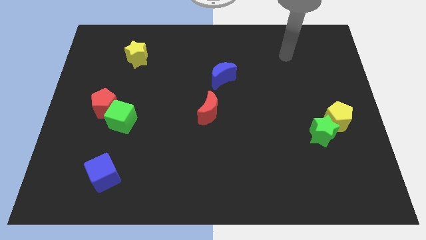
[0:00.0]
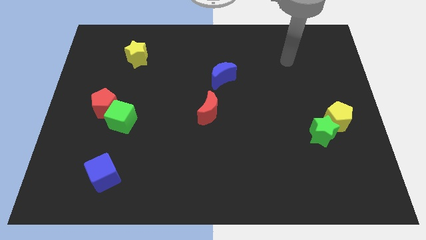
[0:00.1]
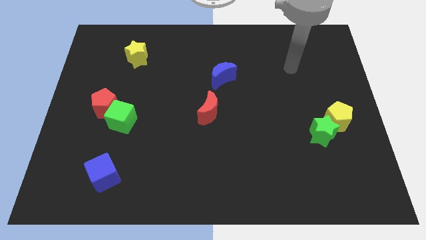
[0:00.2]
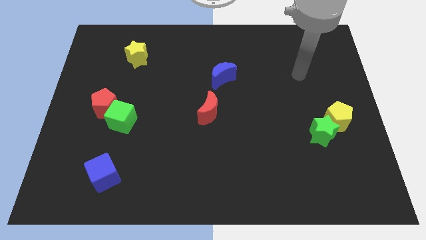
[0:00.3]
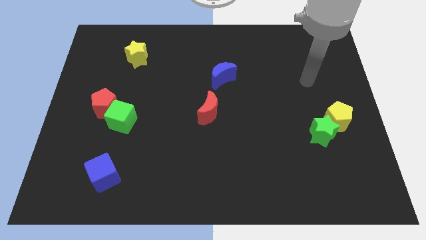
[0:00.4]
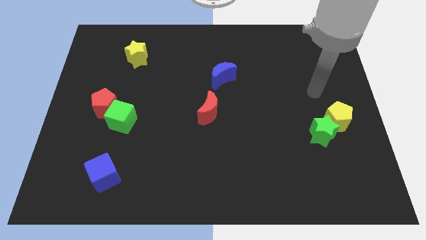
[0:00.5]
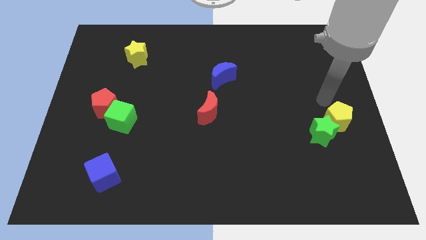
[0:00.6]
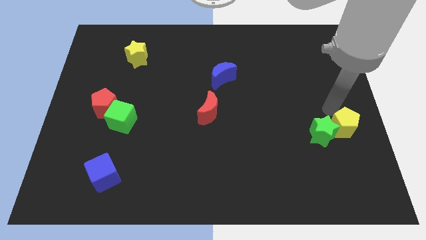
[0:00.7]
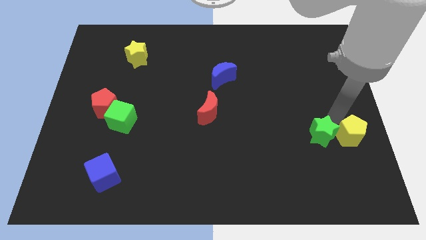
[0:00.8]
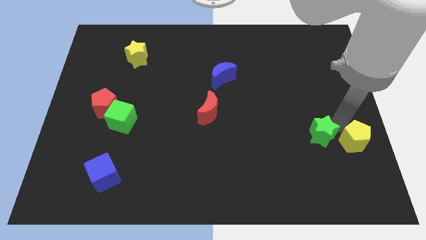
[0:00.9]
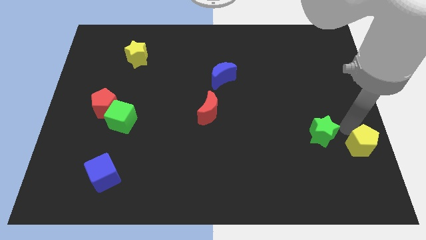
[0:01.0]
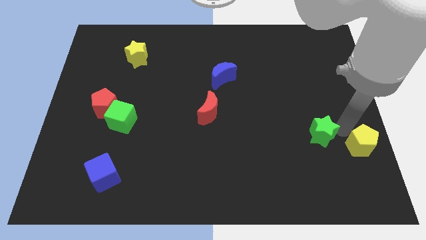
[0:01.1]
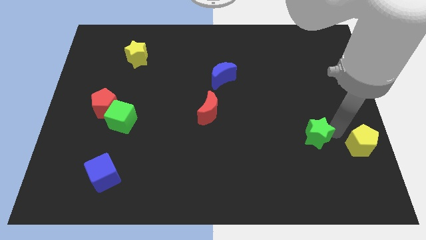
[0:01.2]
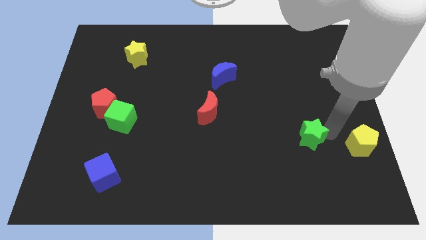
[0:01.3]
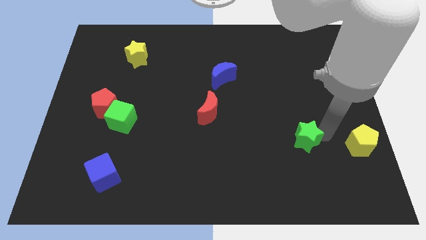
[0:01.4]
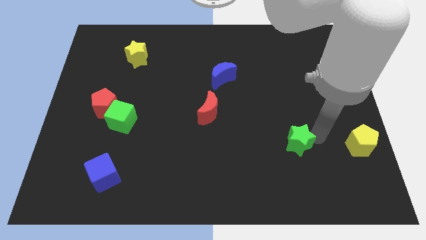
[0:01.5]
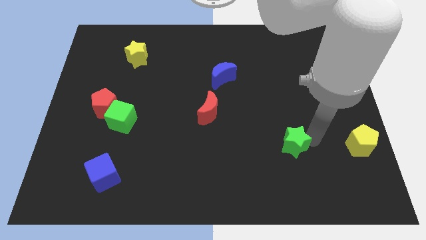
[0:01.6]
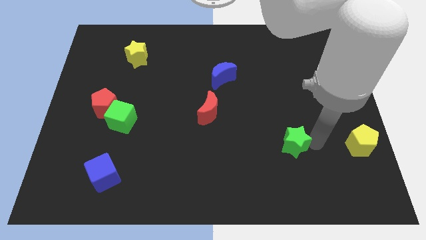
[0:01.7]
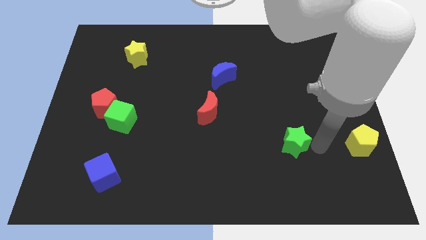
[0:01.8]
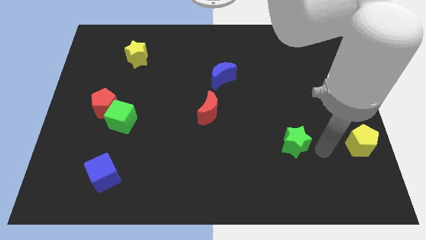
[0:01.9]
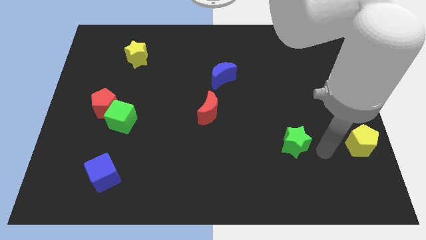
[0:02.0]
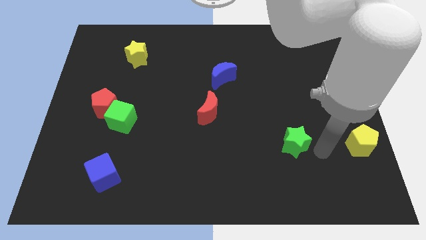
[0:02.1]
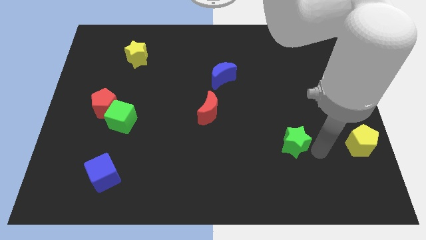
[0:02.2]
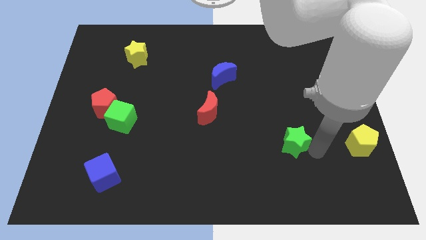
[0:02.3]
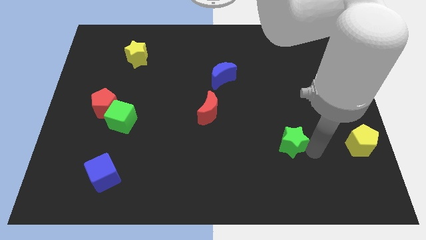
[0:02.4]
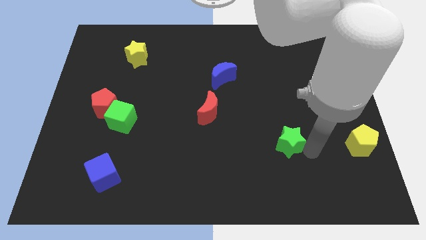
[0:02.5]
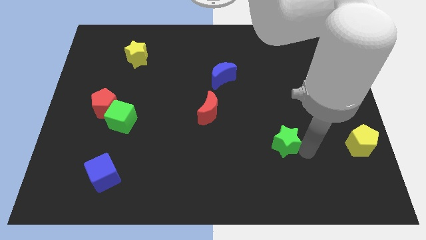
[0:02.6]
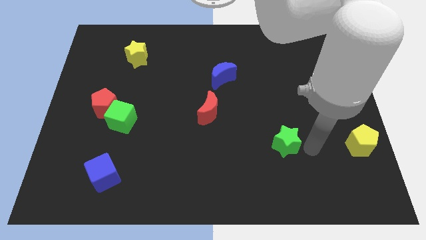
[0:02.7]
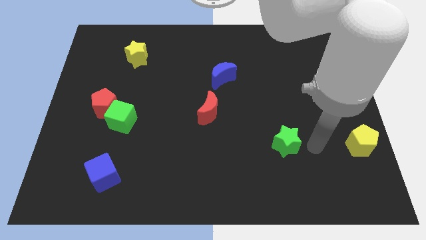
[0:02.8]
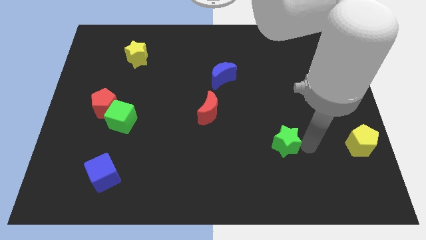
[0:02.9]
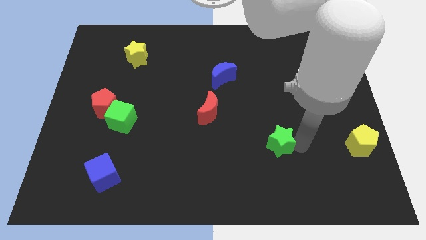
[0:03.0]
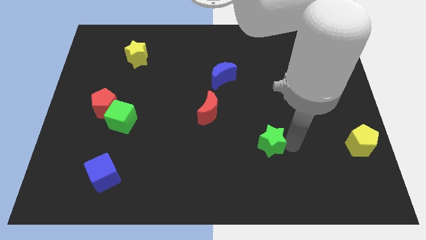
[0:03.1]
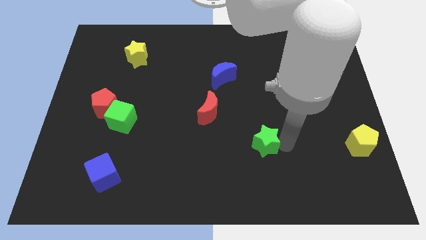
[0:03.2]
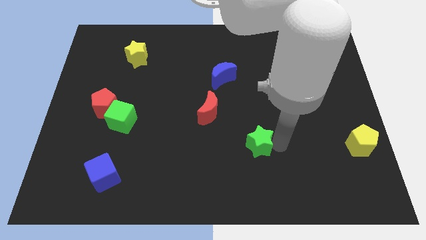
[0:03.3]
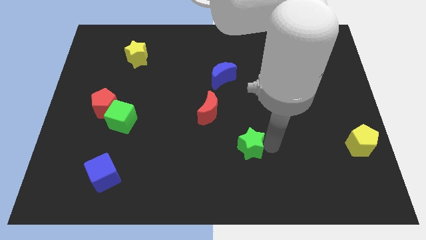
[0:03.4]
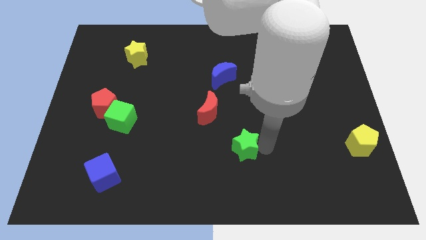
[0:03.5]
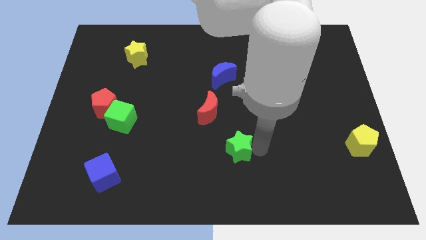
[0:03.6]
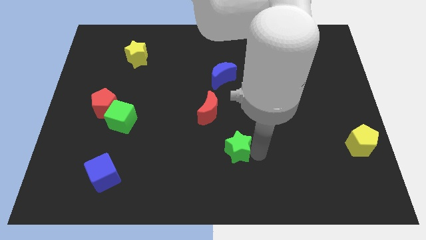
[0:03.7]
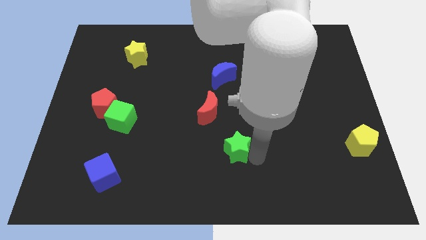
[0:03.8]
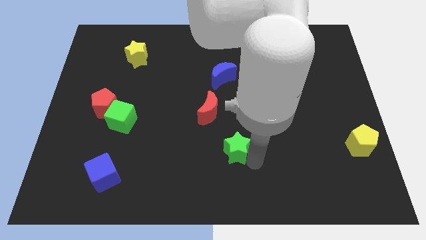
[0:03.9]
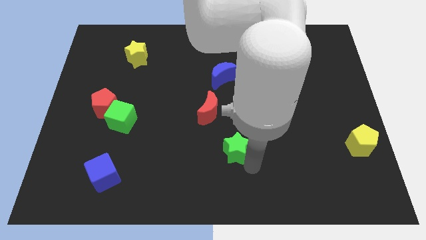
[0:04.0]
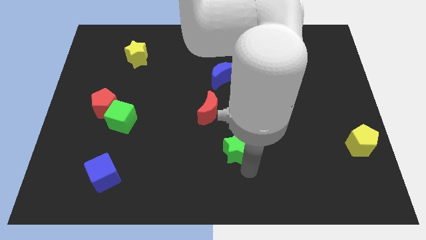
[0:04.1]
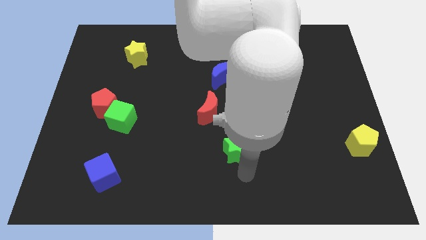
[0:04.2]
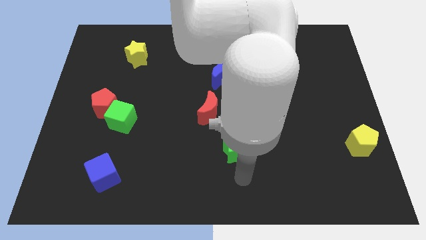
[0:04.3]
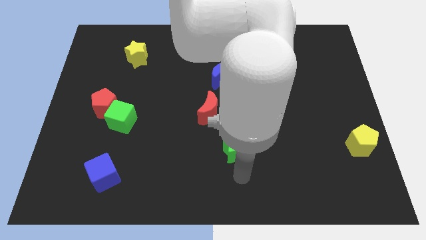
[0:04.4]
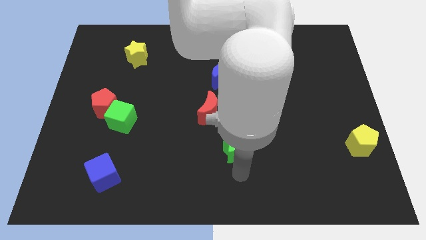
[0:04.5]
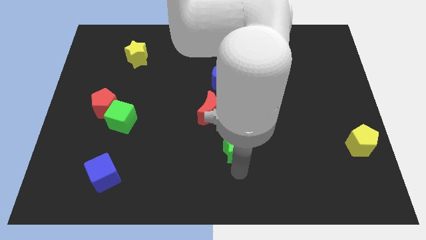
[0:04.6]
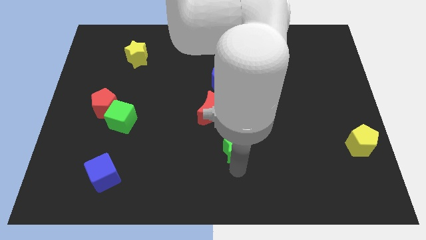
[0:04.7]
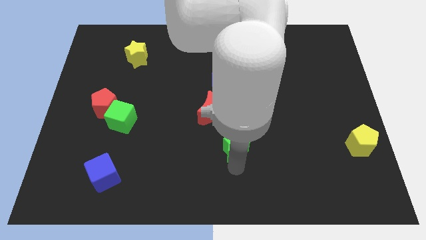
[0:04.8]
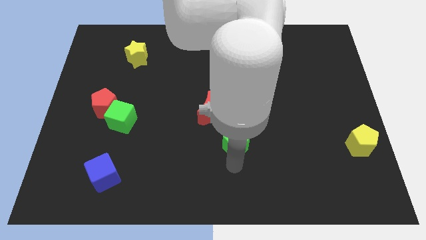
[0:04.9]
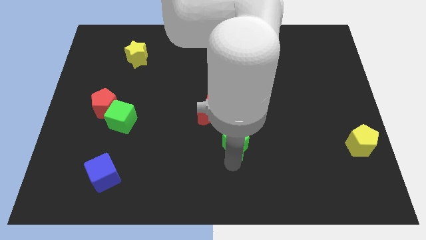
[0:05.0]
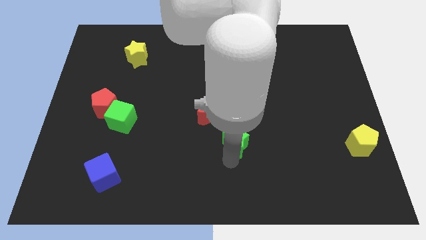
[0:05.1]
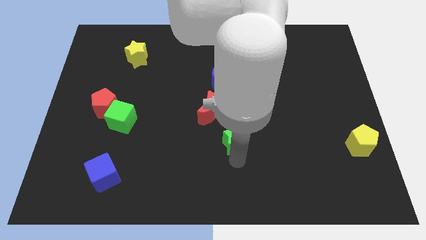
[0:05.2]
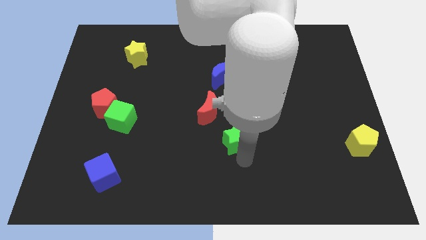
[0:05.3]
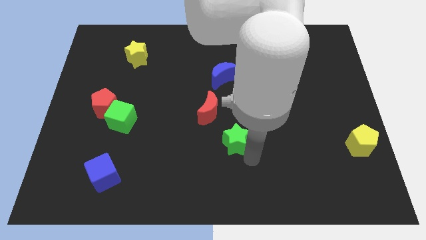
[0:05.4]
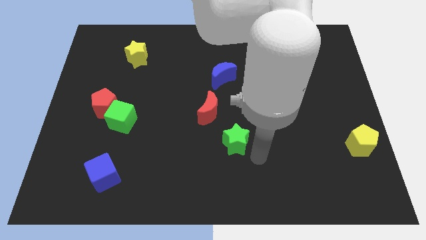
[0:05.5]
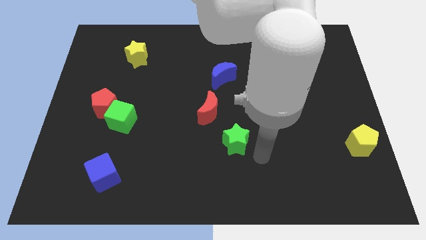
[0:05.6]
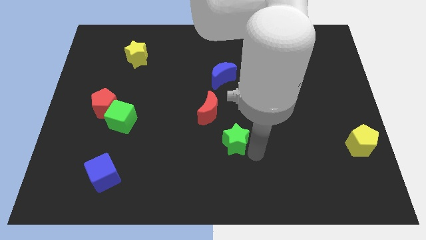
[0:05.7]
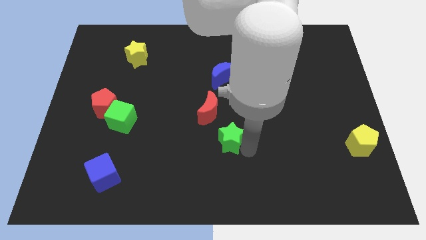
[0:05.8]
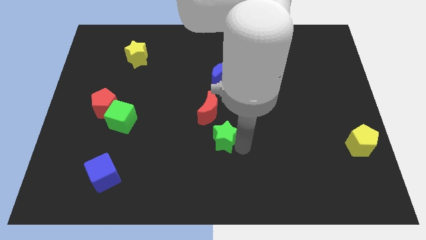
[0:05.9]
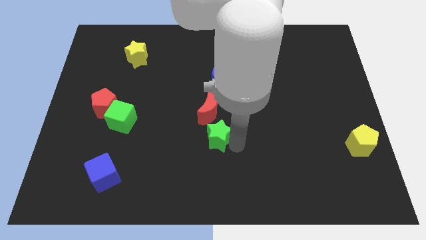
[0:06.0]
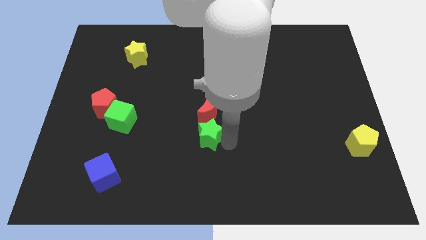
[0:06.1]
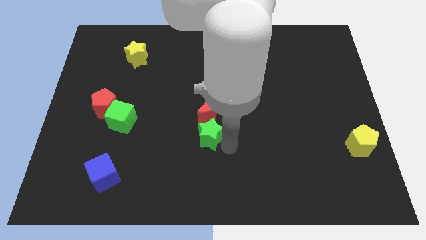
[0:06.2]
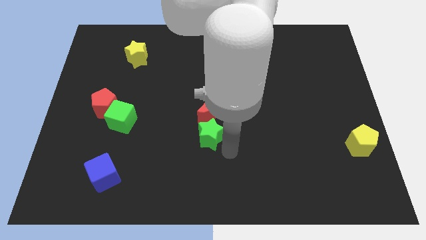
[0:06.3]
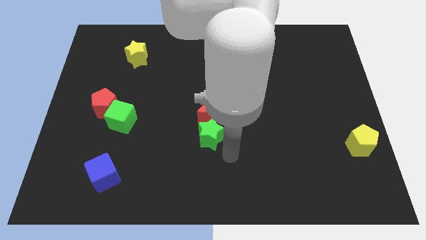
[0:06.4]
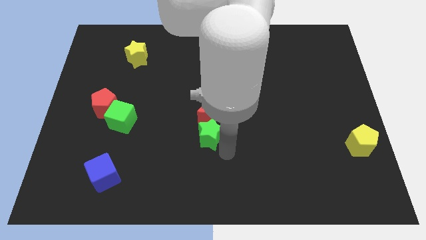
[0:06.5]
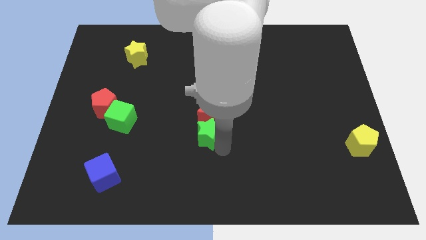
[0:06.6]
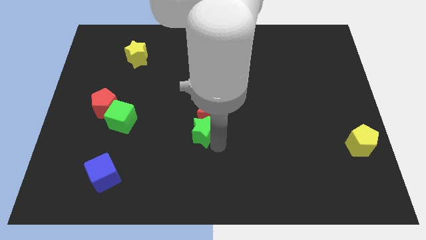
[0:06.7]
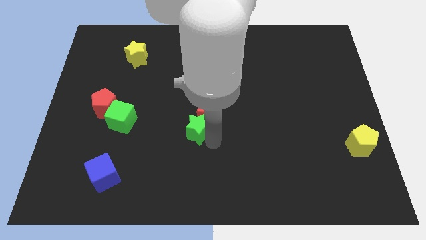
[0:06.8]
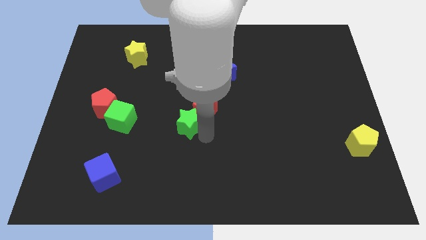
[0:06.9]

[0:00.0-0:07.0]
push the green star to the right side of the green cube
